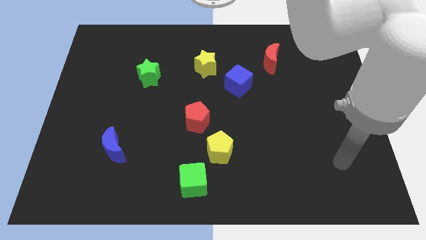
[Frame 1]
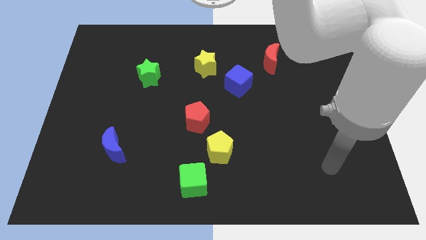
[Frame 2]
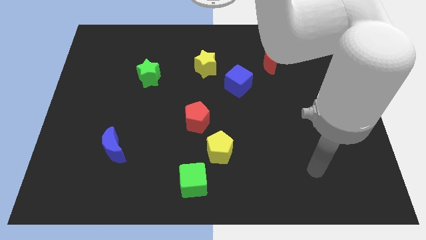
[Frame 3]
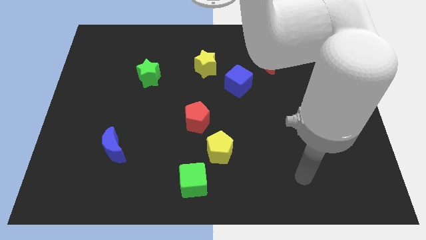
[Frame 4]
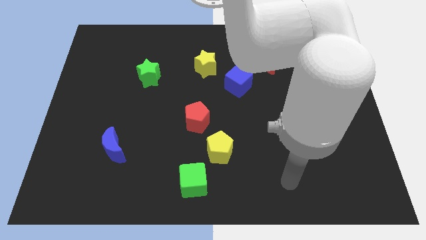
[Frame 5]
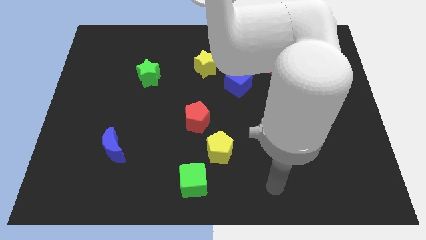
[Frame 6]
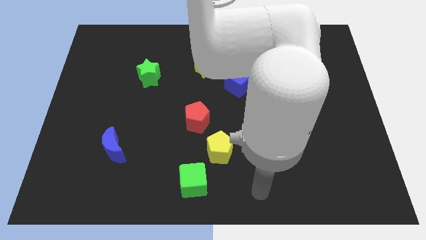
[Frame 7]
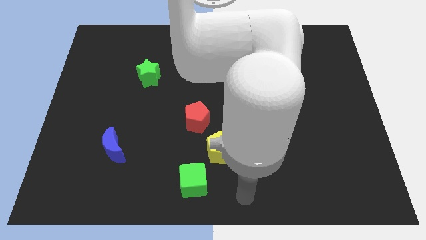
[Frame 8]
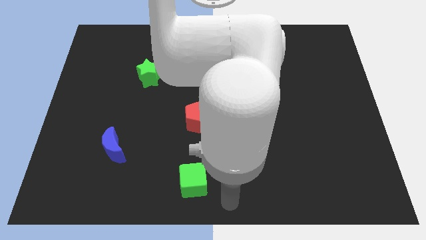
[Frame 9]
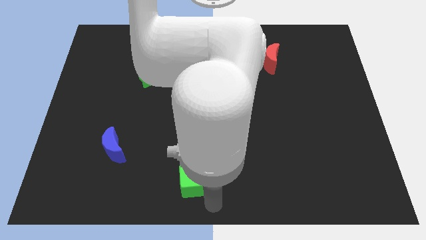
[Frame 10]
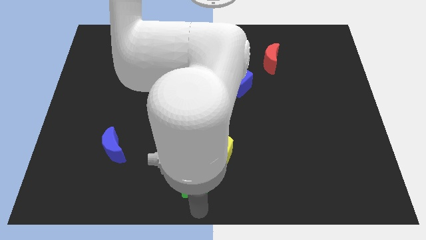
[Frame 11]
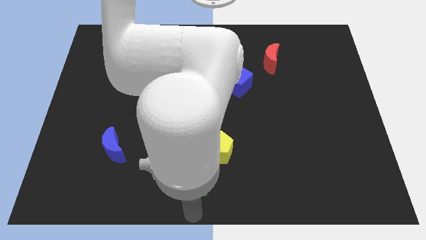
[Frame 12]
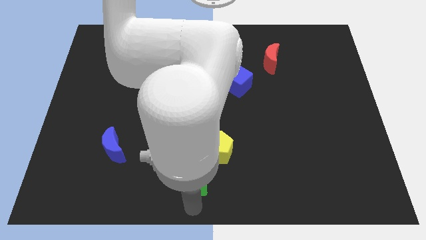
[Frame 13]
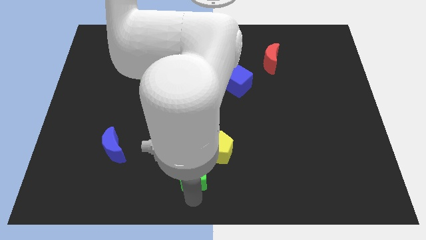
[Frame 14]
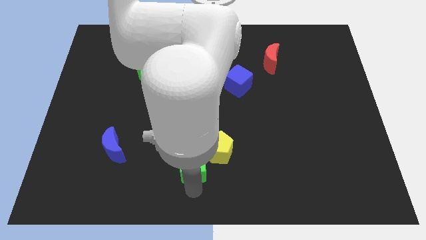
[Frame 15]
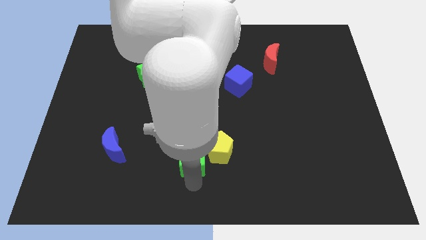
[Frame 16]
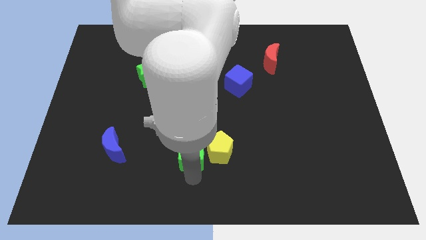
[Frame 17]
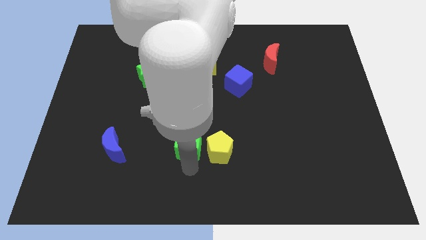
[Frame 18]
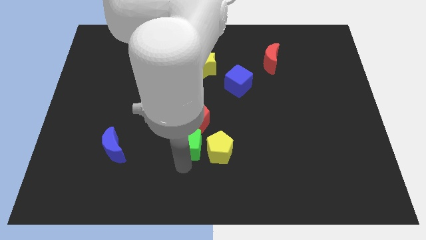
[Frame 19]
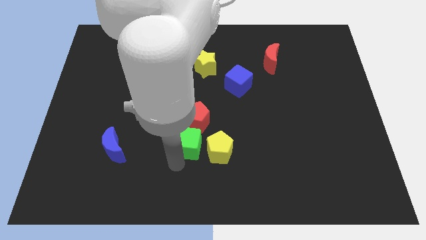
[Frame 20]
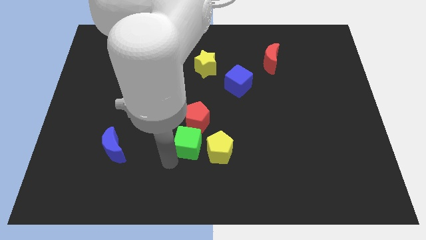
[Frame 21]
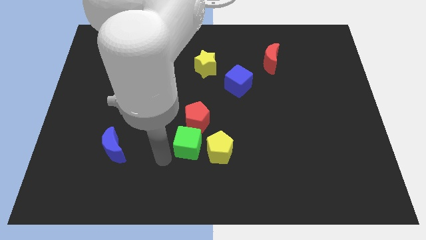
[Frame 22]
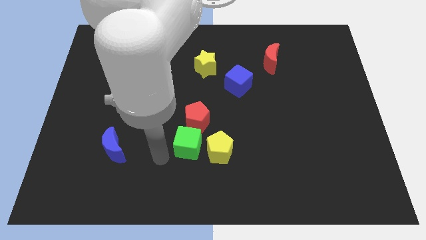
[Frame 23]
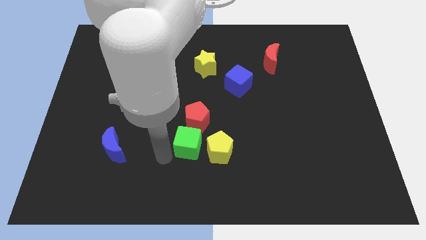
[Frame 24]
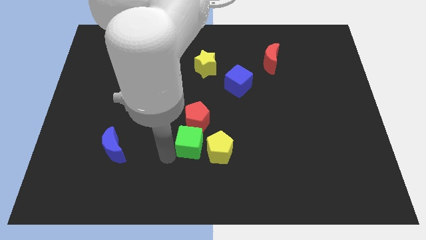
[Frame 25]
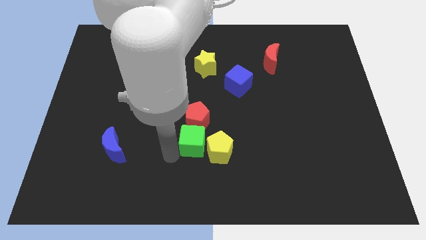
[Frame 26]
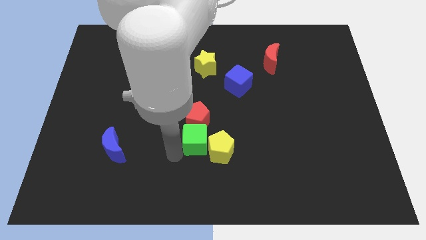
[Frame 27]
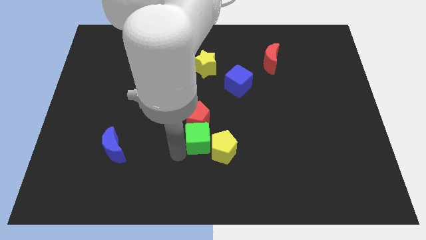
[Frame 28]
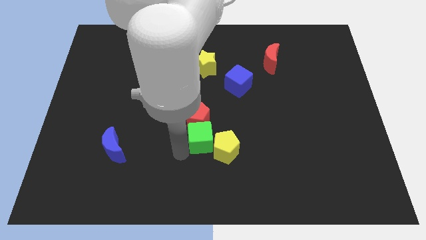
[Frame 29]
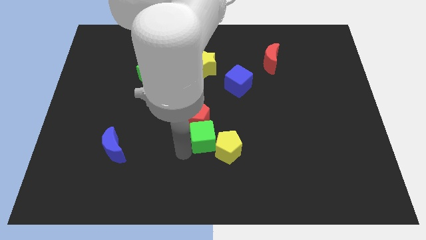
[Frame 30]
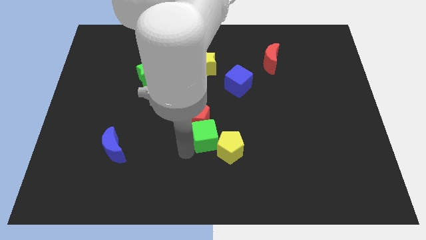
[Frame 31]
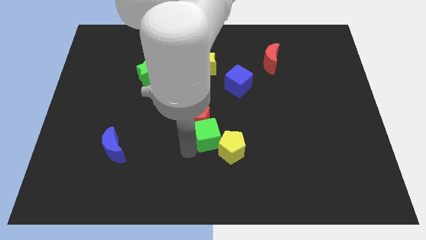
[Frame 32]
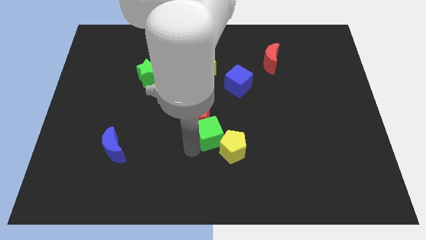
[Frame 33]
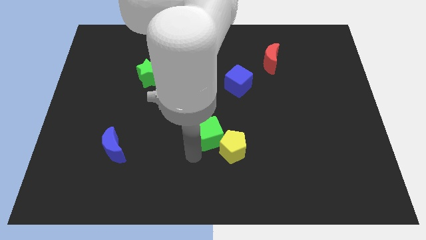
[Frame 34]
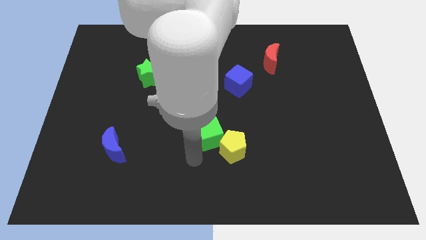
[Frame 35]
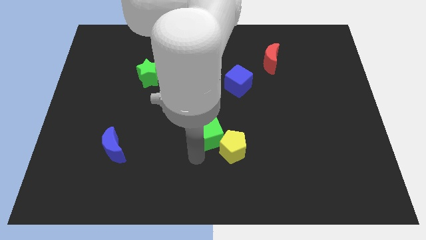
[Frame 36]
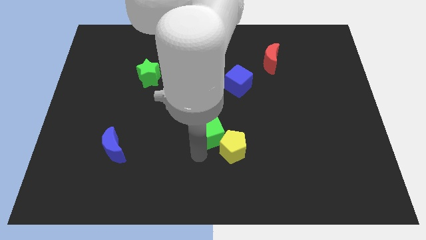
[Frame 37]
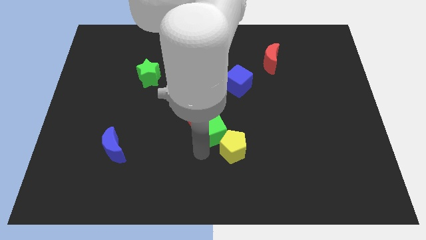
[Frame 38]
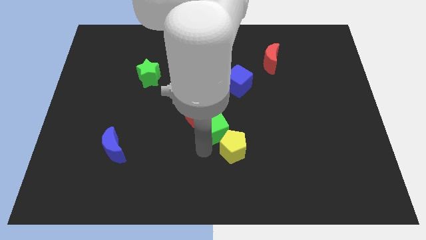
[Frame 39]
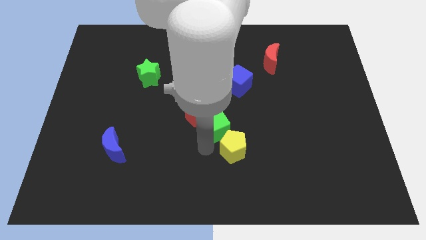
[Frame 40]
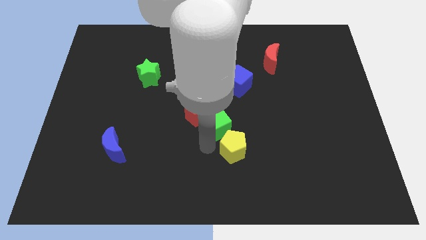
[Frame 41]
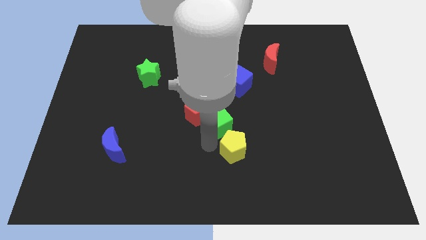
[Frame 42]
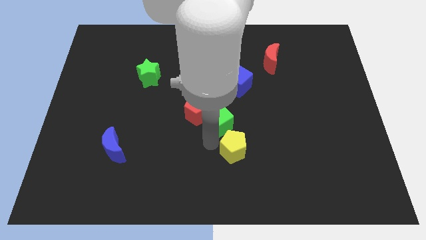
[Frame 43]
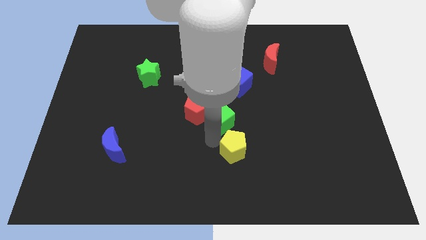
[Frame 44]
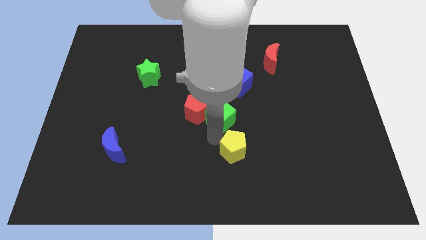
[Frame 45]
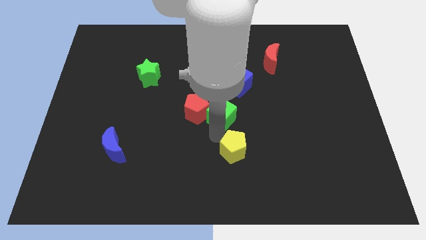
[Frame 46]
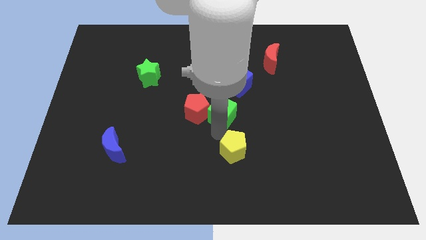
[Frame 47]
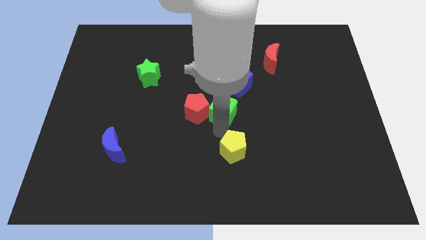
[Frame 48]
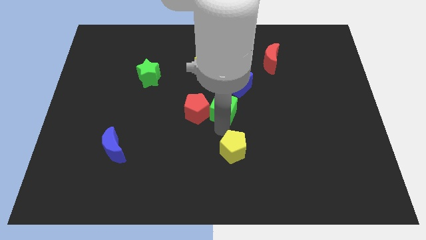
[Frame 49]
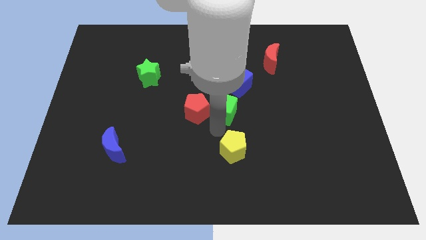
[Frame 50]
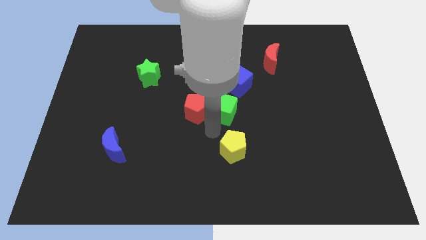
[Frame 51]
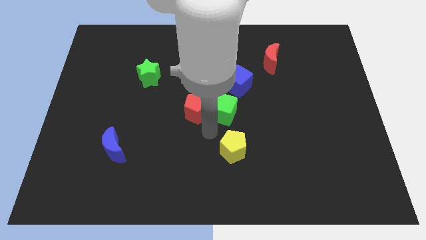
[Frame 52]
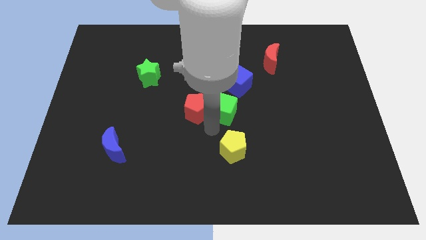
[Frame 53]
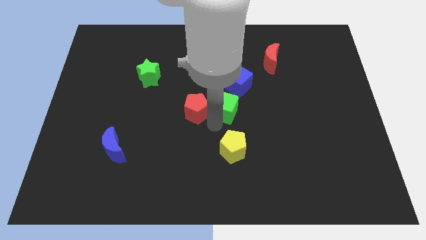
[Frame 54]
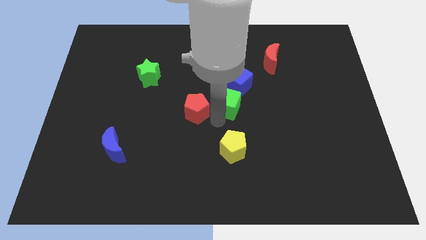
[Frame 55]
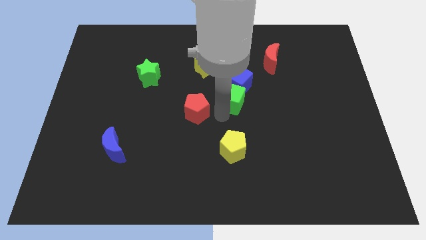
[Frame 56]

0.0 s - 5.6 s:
slide the green cube towards the blue cube

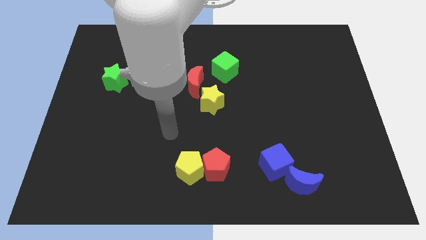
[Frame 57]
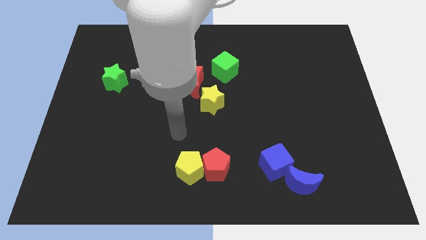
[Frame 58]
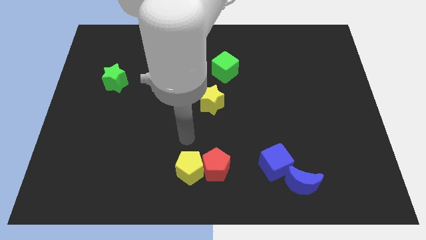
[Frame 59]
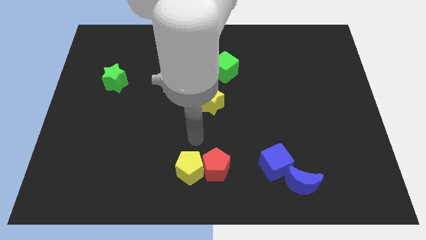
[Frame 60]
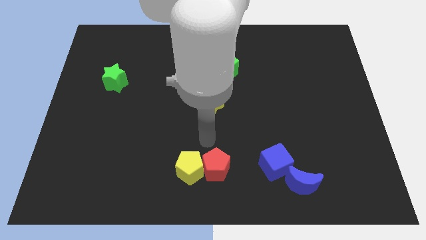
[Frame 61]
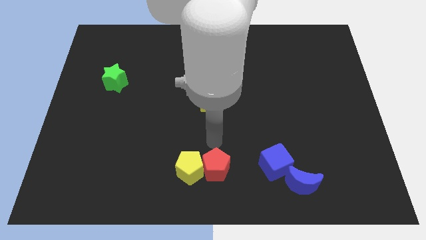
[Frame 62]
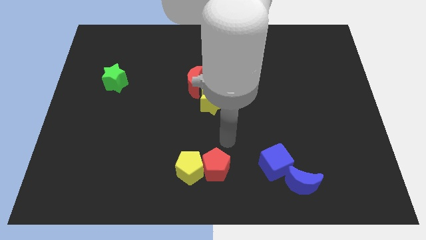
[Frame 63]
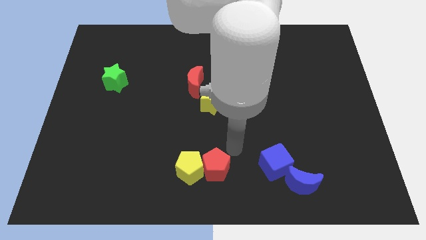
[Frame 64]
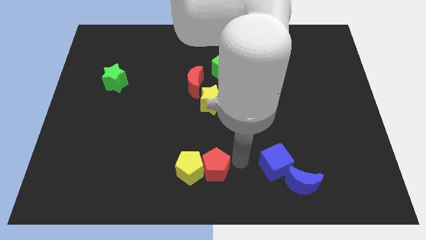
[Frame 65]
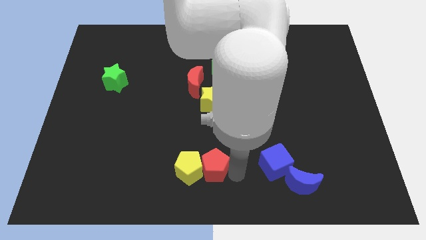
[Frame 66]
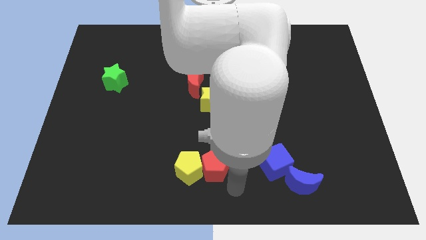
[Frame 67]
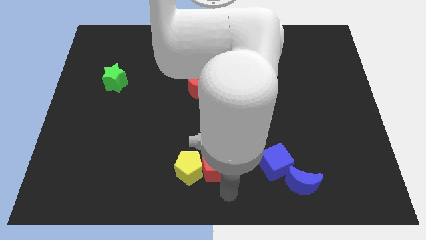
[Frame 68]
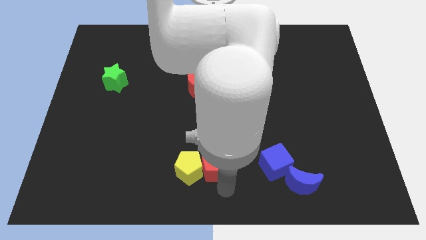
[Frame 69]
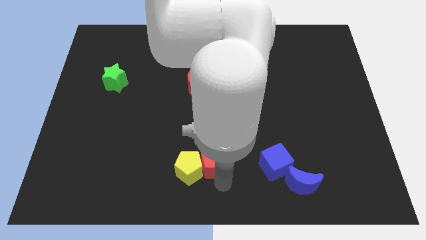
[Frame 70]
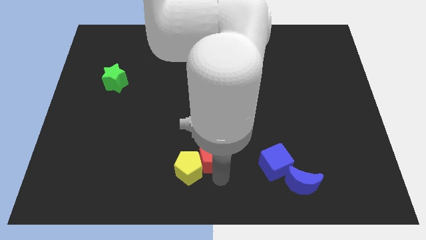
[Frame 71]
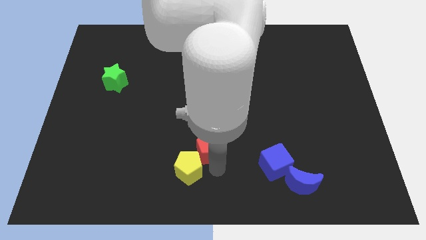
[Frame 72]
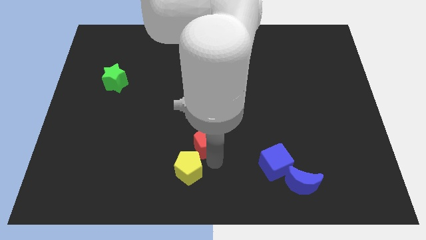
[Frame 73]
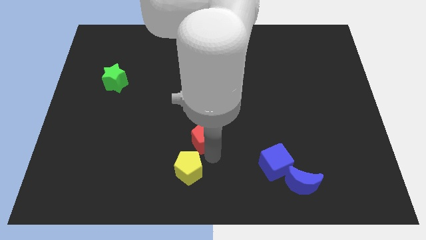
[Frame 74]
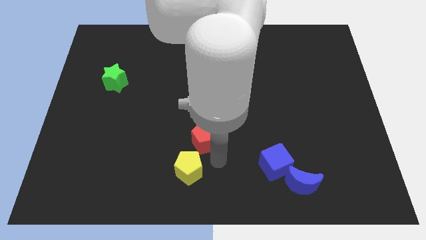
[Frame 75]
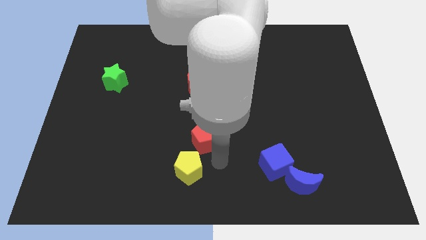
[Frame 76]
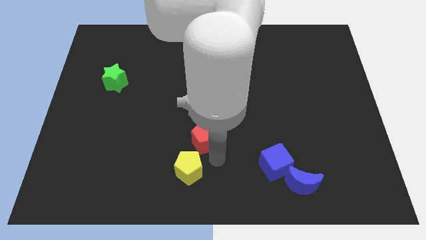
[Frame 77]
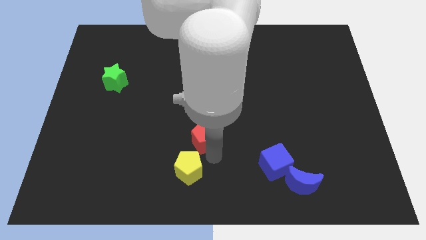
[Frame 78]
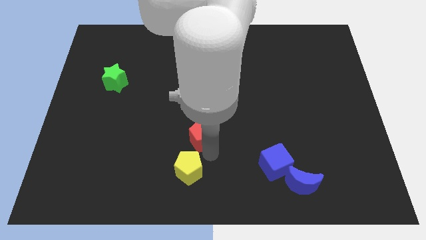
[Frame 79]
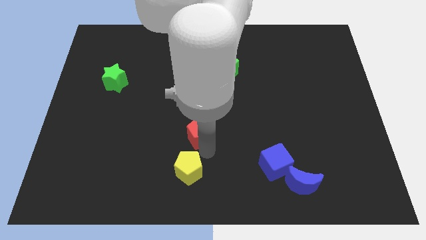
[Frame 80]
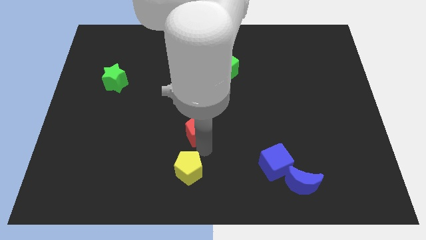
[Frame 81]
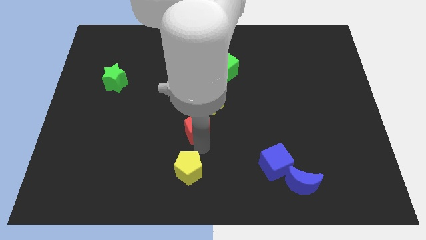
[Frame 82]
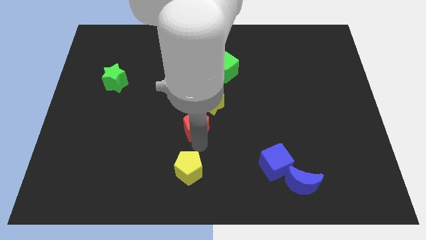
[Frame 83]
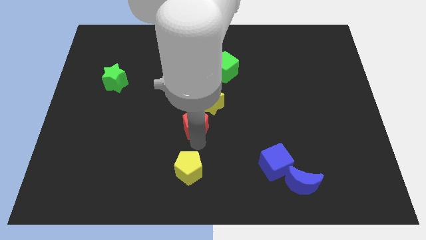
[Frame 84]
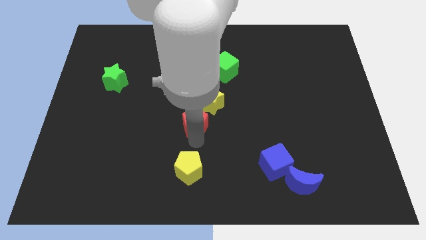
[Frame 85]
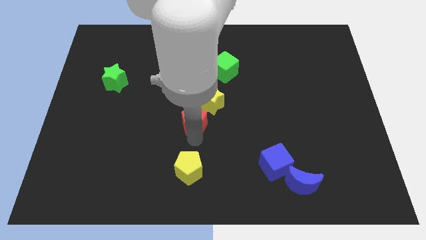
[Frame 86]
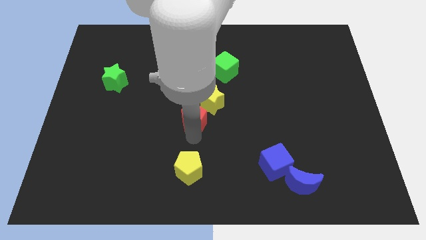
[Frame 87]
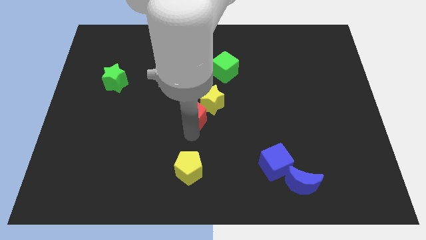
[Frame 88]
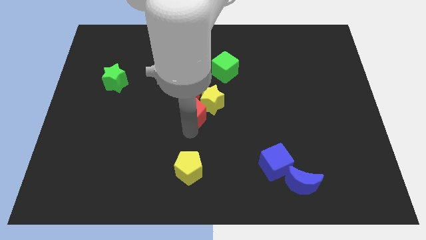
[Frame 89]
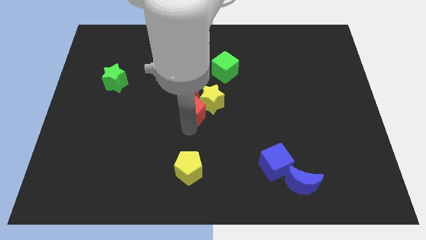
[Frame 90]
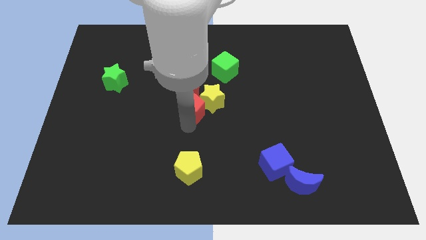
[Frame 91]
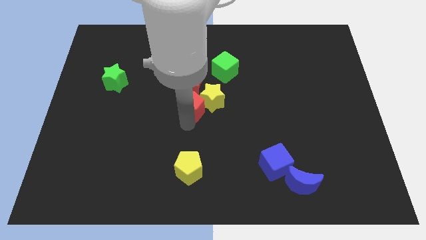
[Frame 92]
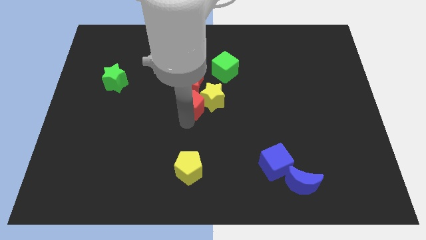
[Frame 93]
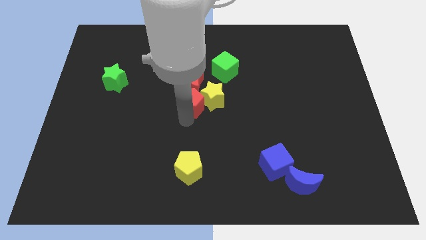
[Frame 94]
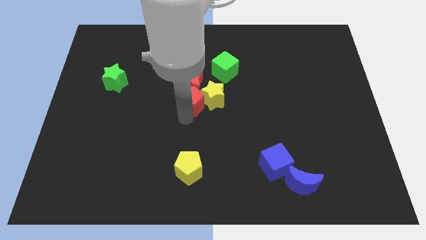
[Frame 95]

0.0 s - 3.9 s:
push the red pentagon next to the red moon
